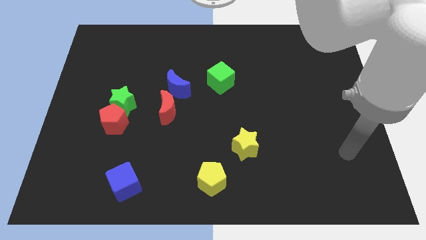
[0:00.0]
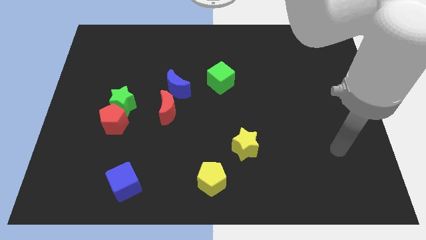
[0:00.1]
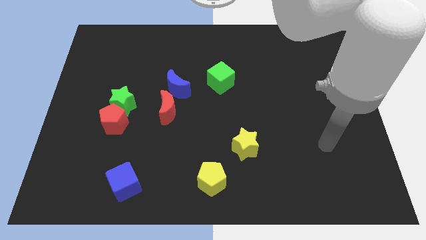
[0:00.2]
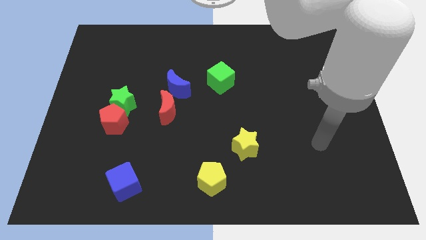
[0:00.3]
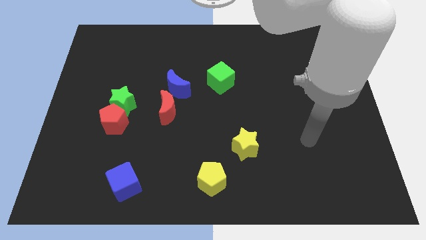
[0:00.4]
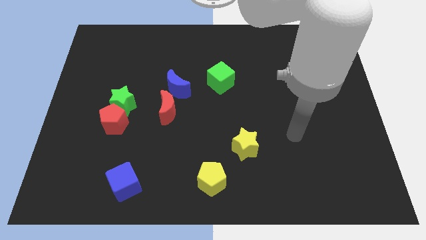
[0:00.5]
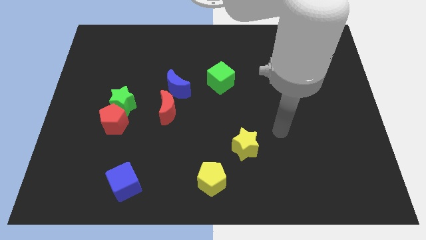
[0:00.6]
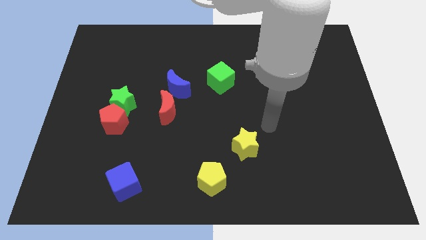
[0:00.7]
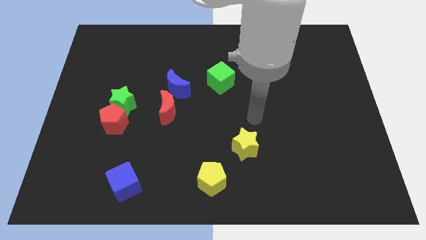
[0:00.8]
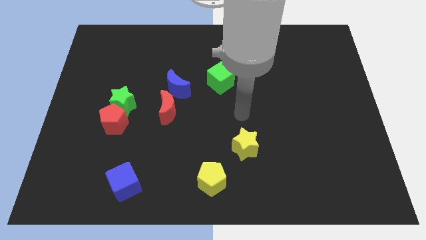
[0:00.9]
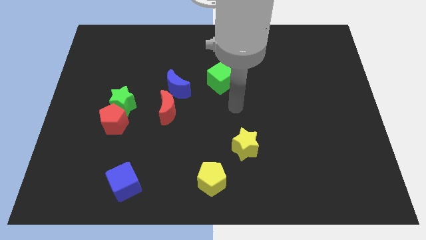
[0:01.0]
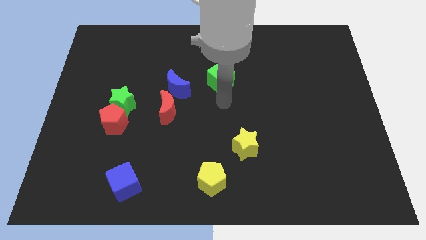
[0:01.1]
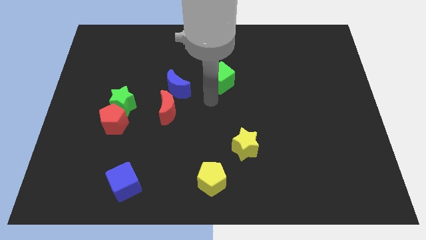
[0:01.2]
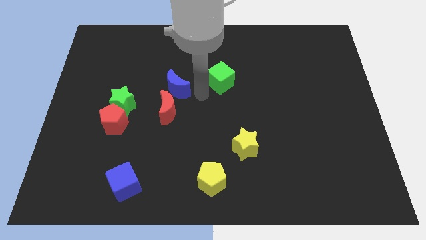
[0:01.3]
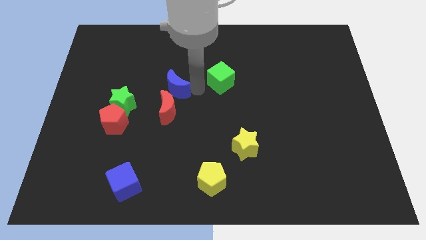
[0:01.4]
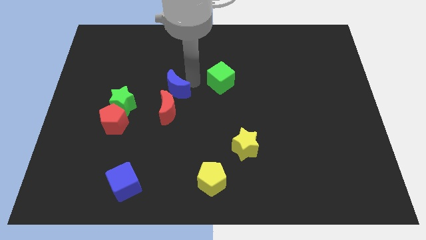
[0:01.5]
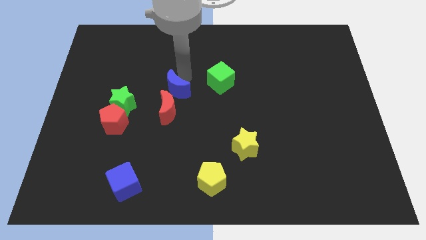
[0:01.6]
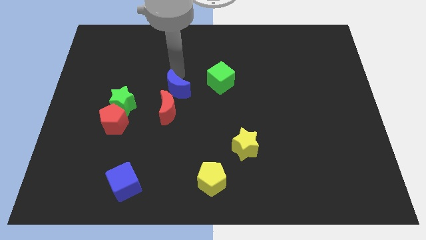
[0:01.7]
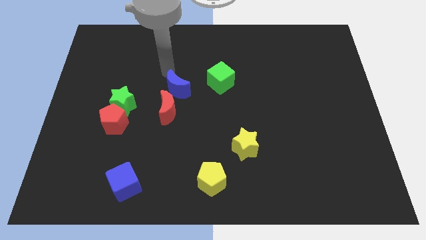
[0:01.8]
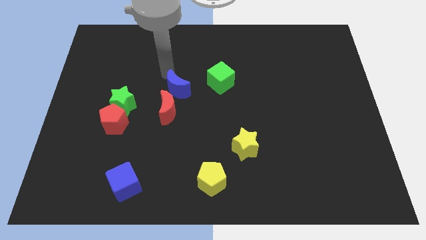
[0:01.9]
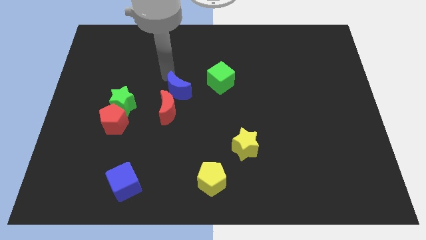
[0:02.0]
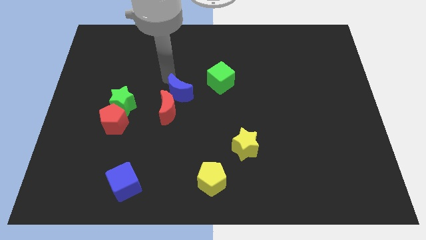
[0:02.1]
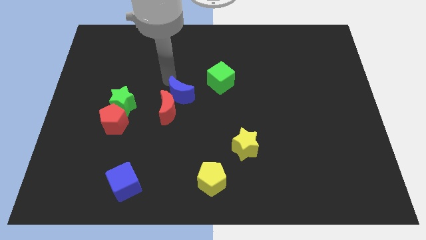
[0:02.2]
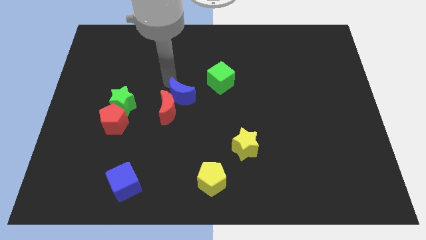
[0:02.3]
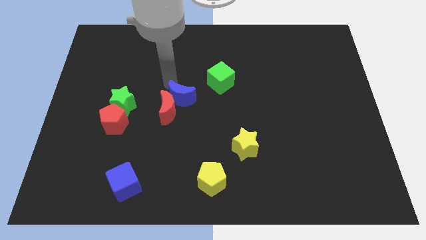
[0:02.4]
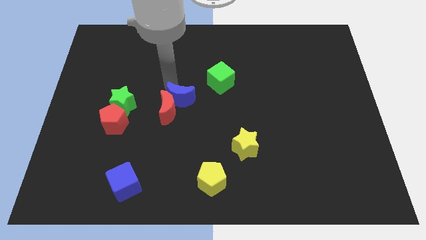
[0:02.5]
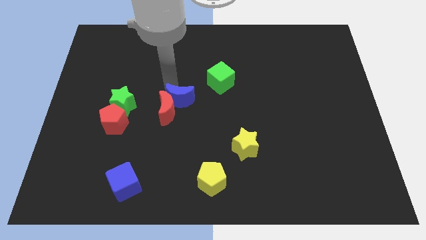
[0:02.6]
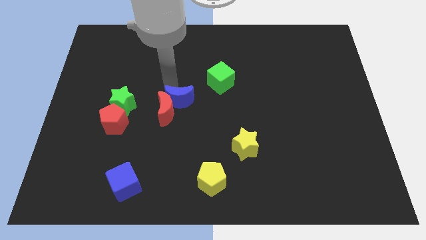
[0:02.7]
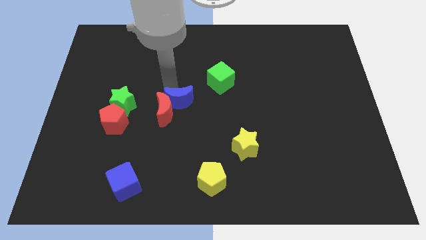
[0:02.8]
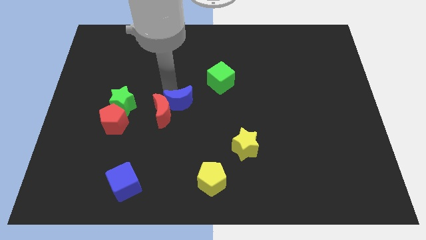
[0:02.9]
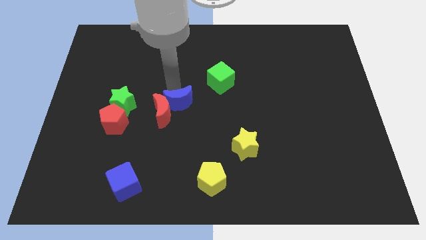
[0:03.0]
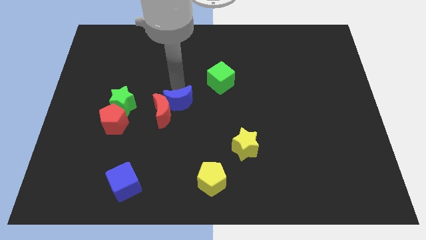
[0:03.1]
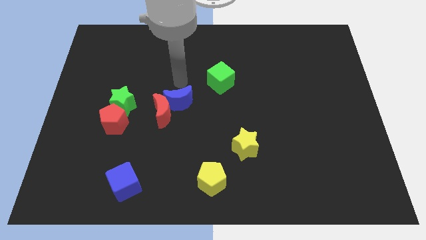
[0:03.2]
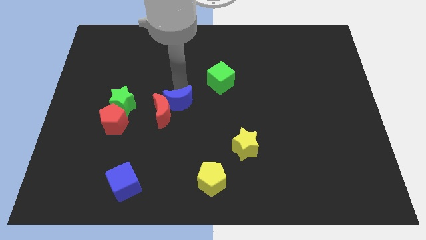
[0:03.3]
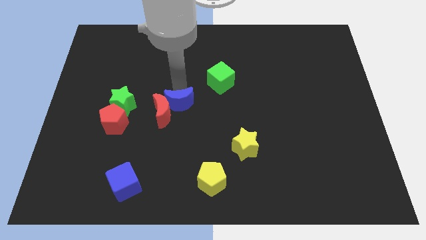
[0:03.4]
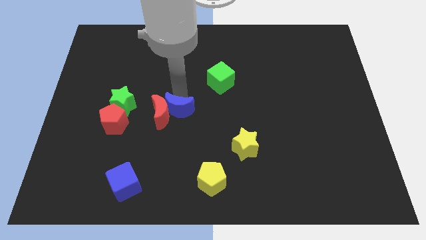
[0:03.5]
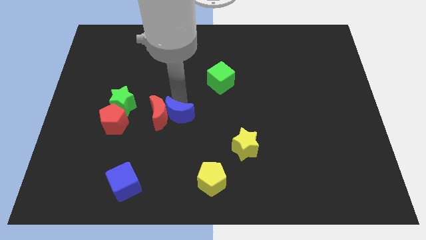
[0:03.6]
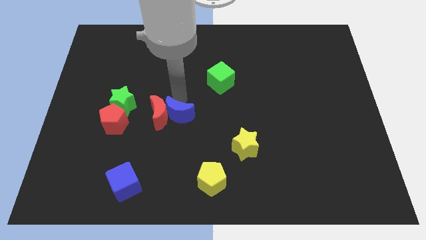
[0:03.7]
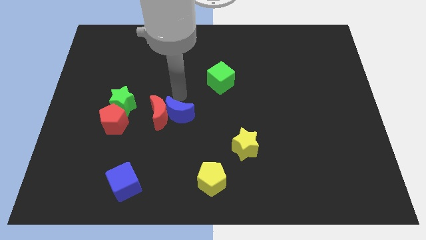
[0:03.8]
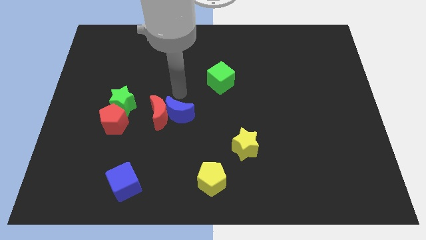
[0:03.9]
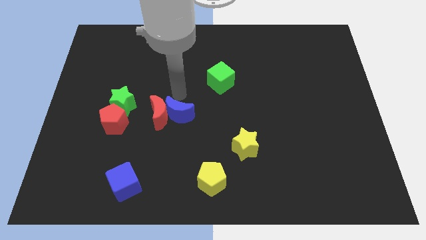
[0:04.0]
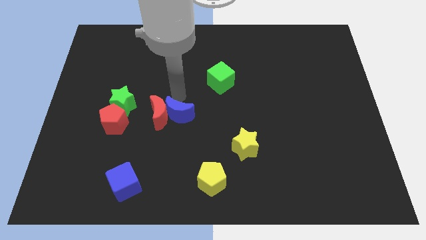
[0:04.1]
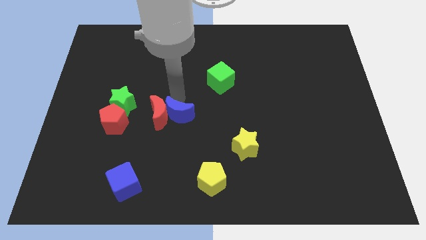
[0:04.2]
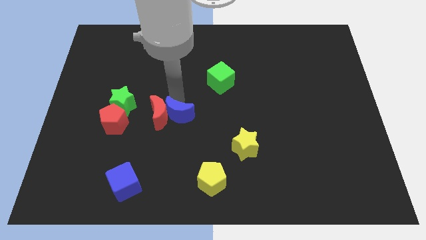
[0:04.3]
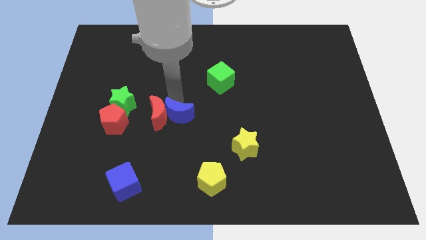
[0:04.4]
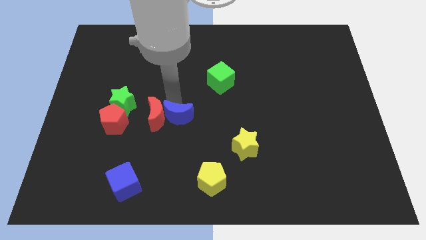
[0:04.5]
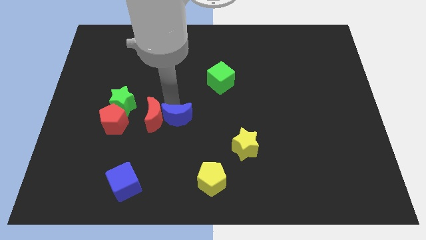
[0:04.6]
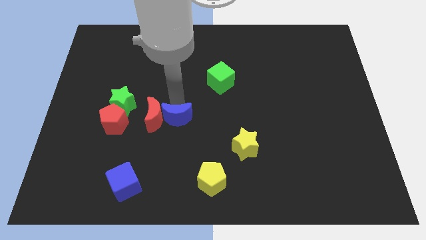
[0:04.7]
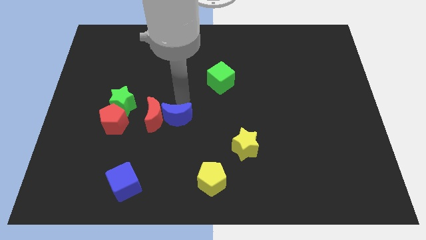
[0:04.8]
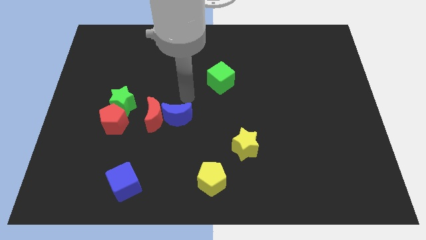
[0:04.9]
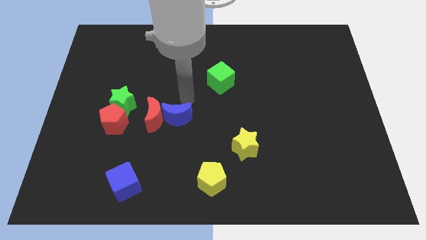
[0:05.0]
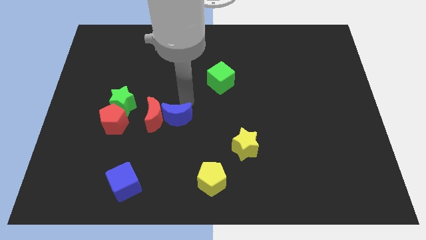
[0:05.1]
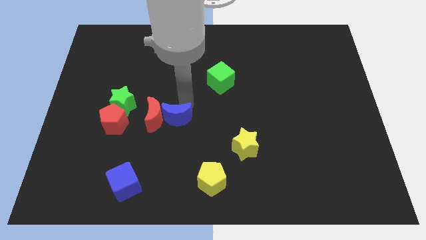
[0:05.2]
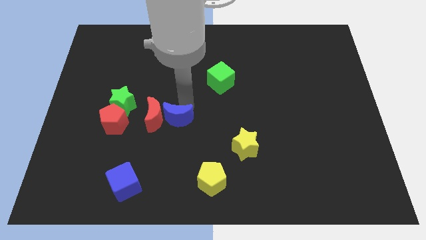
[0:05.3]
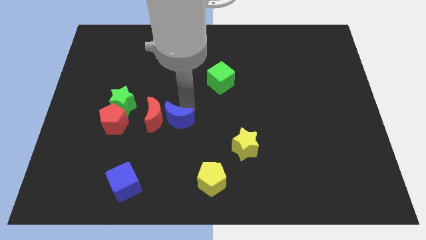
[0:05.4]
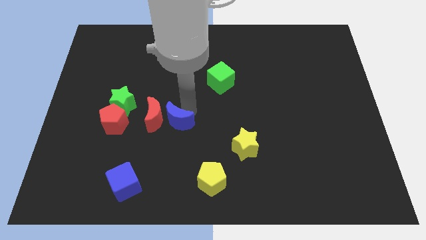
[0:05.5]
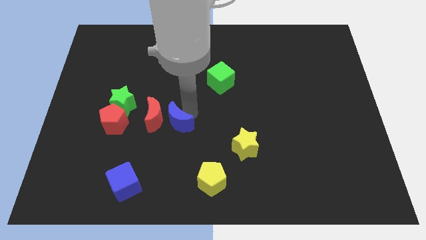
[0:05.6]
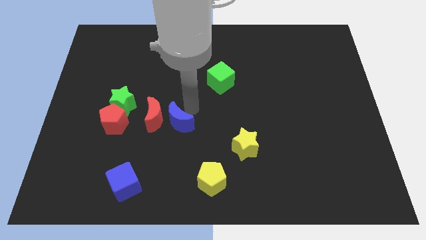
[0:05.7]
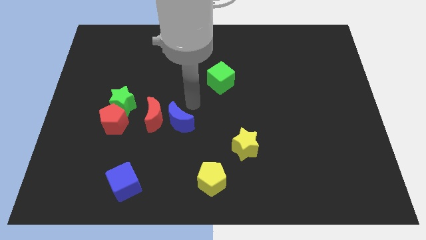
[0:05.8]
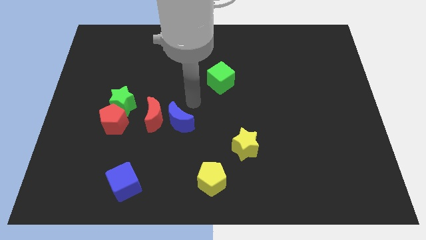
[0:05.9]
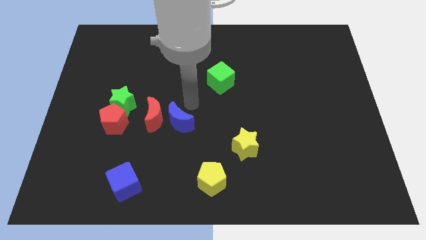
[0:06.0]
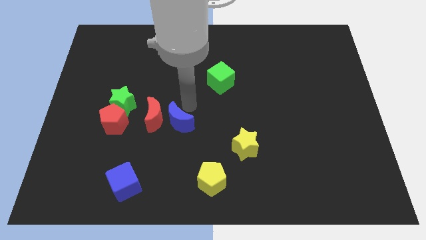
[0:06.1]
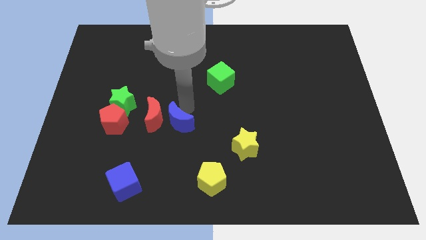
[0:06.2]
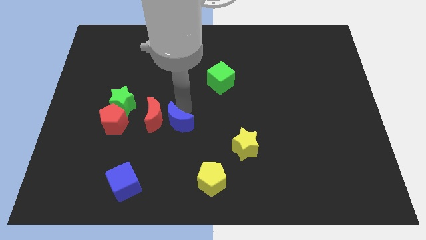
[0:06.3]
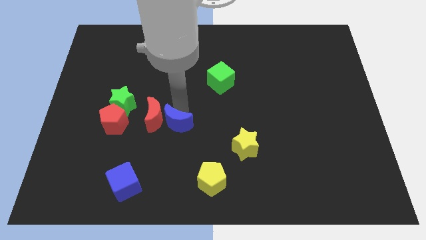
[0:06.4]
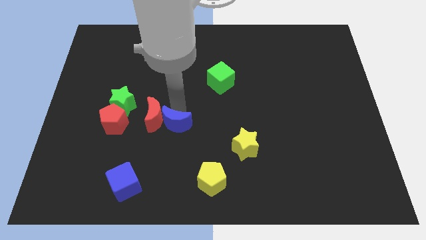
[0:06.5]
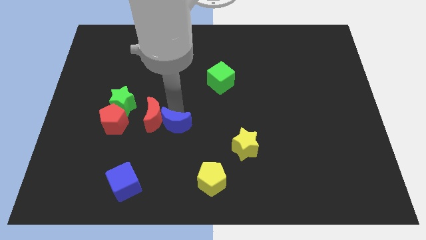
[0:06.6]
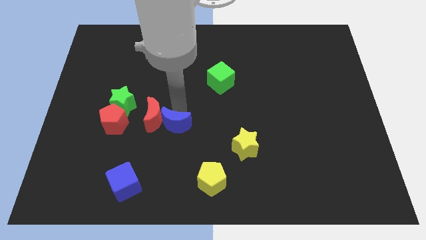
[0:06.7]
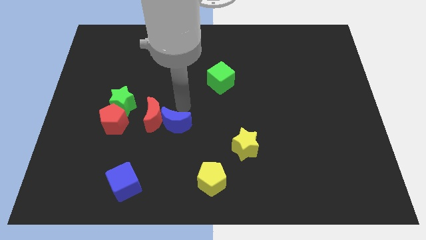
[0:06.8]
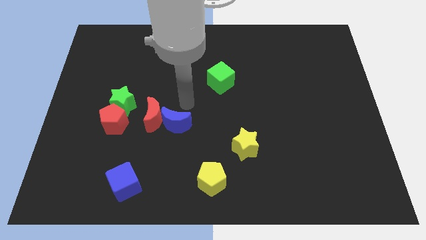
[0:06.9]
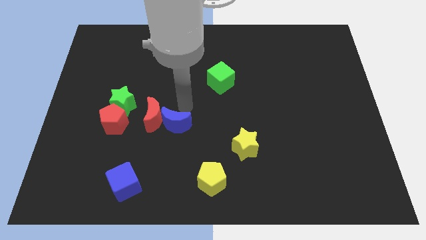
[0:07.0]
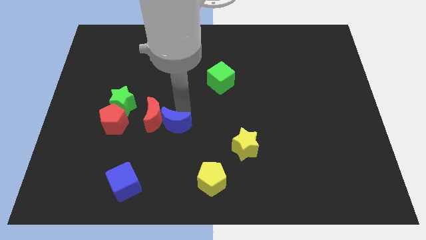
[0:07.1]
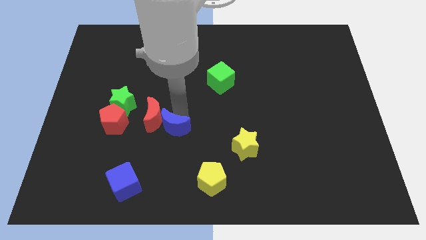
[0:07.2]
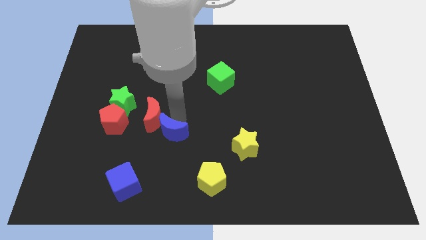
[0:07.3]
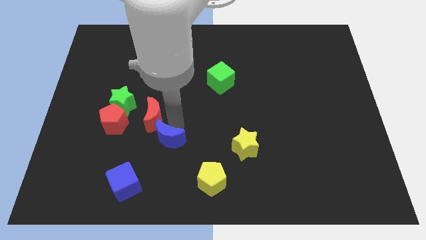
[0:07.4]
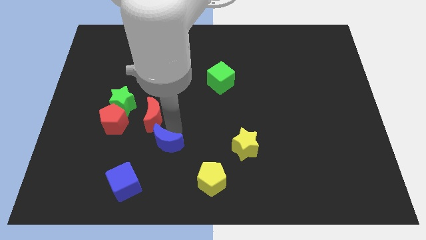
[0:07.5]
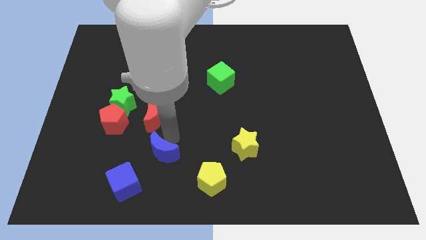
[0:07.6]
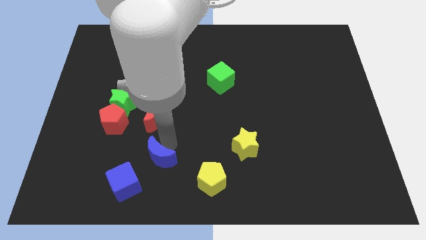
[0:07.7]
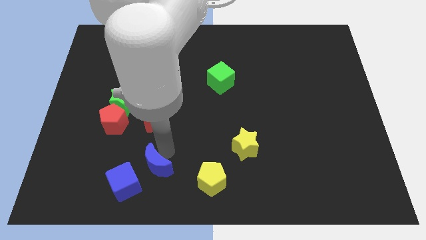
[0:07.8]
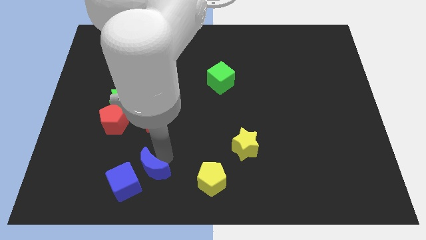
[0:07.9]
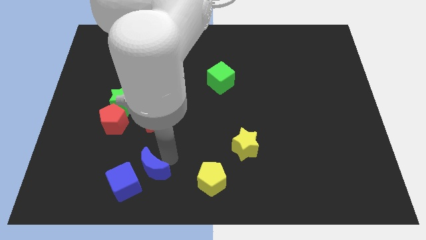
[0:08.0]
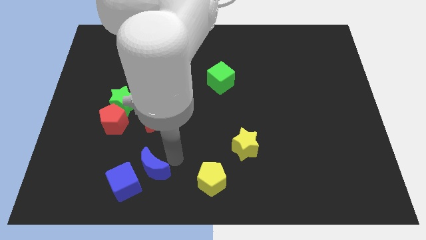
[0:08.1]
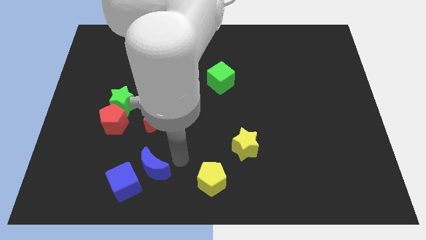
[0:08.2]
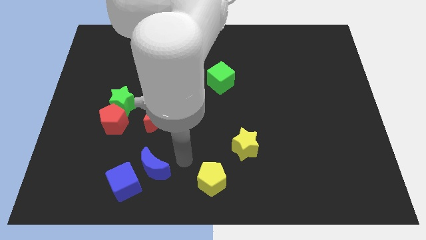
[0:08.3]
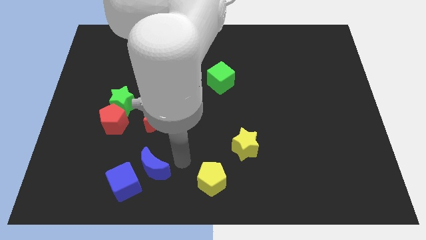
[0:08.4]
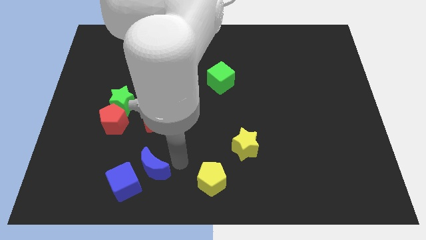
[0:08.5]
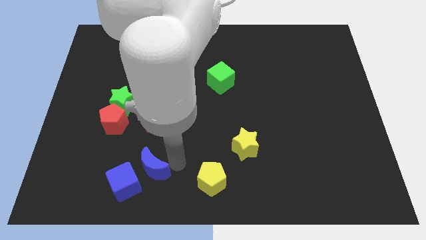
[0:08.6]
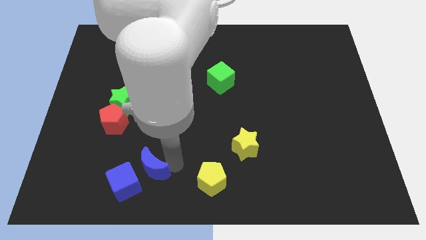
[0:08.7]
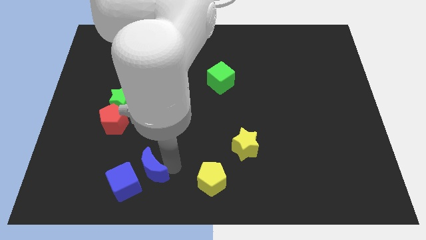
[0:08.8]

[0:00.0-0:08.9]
push the blue moon close to the blue cube
